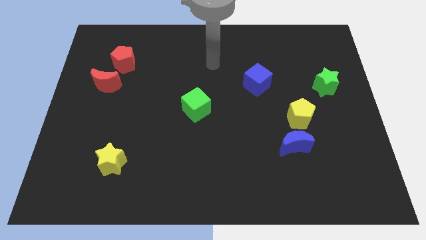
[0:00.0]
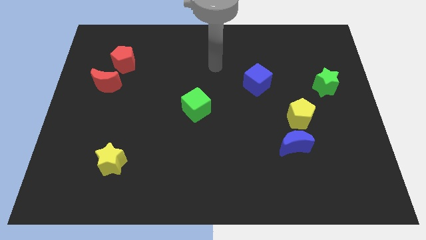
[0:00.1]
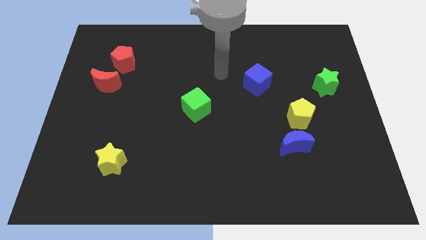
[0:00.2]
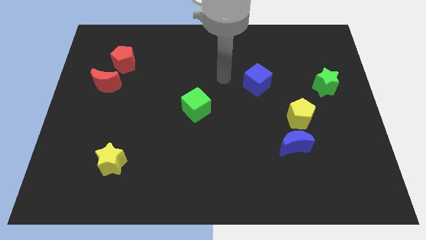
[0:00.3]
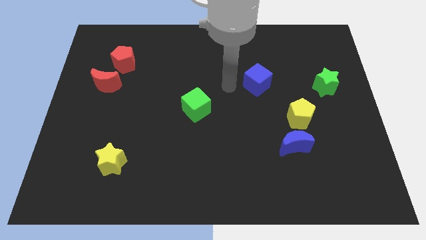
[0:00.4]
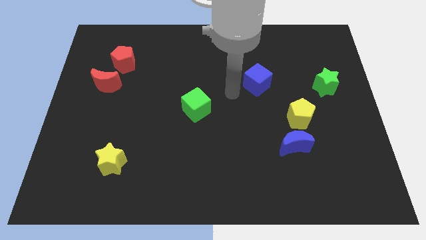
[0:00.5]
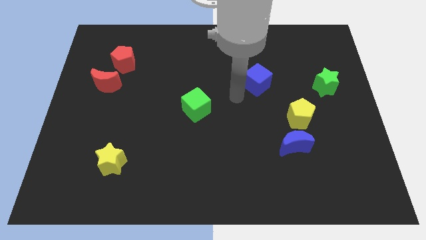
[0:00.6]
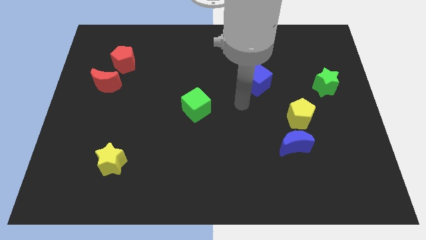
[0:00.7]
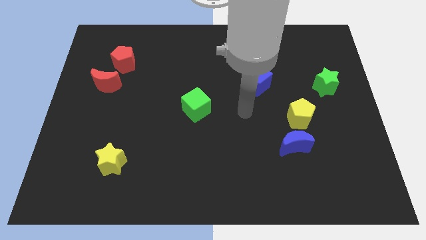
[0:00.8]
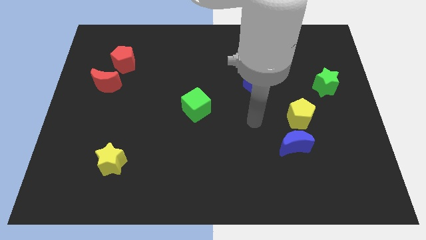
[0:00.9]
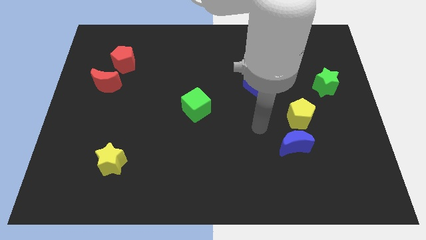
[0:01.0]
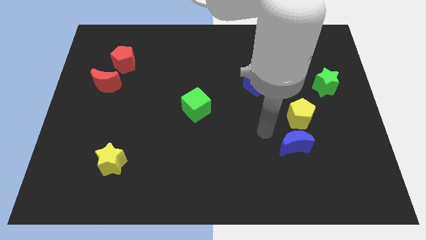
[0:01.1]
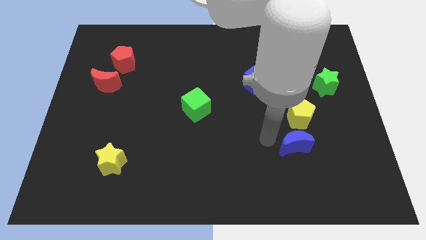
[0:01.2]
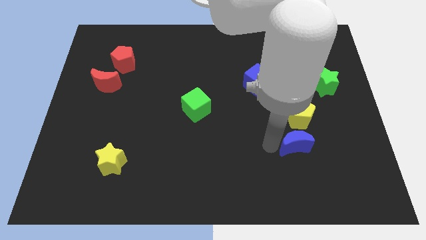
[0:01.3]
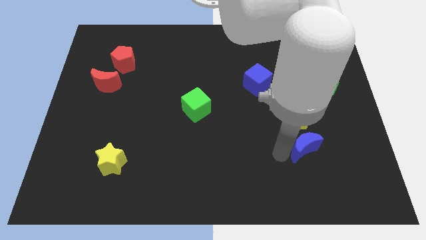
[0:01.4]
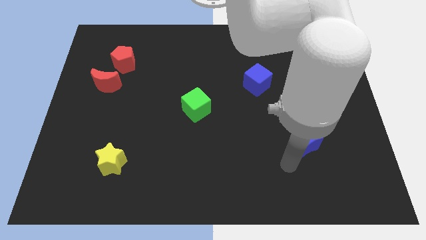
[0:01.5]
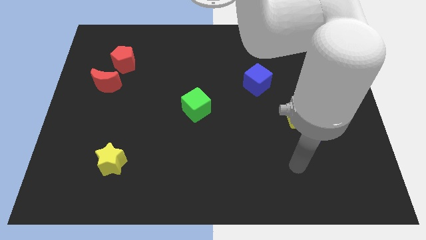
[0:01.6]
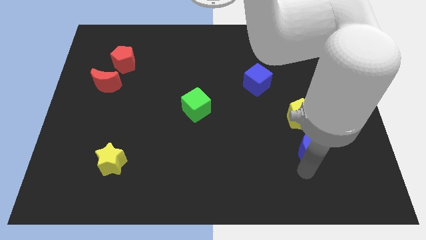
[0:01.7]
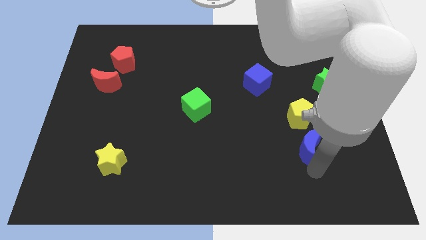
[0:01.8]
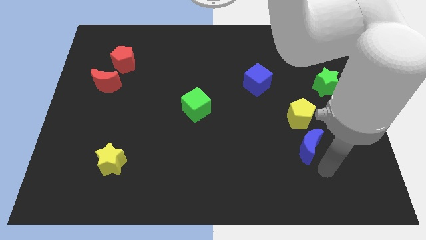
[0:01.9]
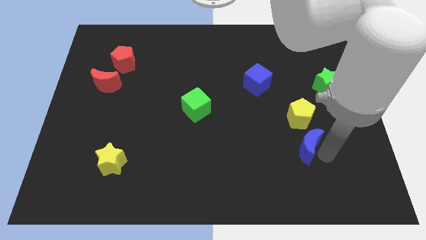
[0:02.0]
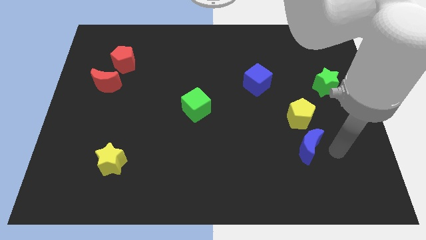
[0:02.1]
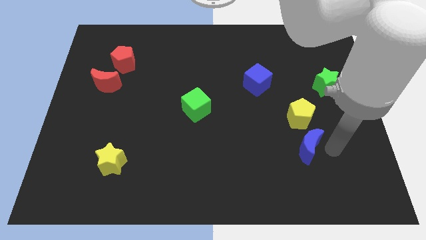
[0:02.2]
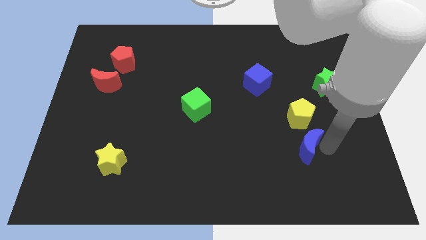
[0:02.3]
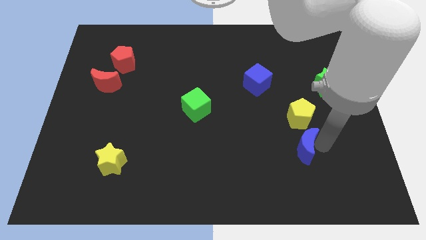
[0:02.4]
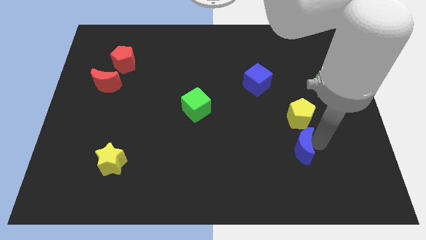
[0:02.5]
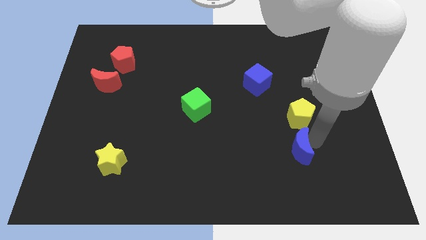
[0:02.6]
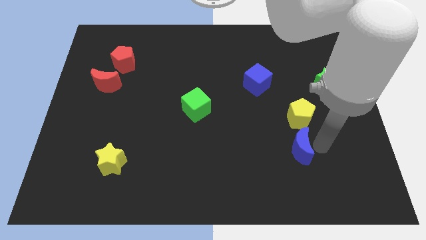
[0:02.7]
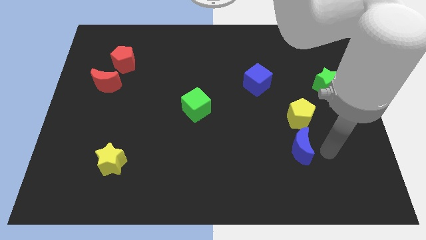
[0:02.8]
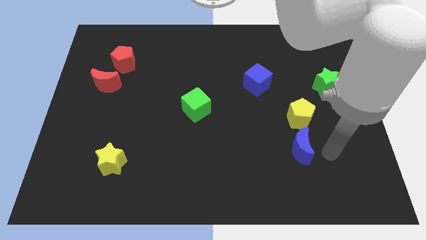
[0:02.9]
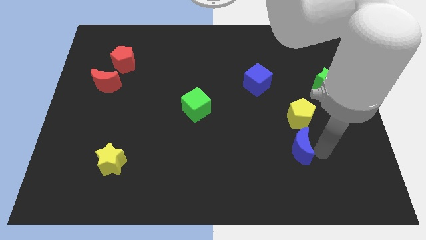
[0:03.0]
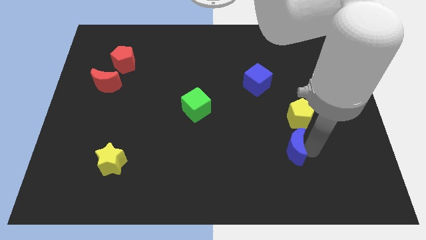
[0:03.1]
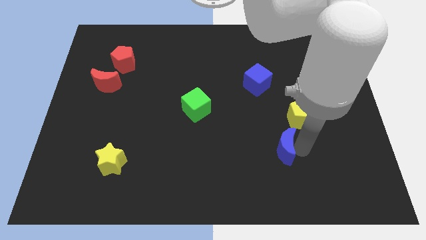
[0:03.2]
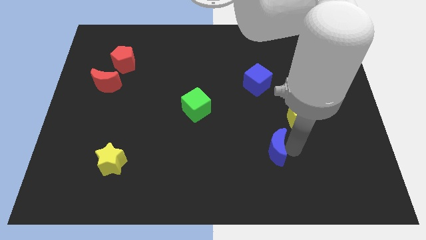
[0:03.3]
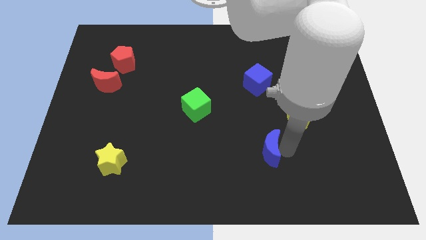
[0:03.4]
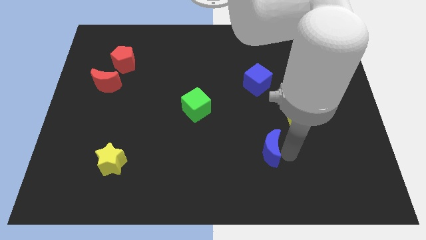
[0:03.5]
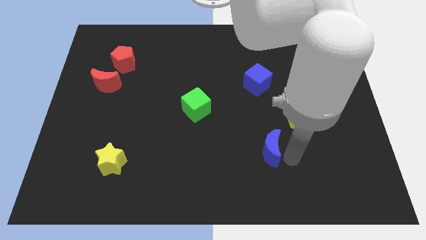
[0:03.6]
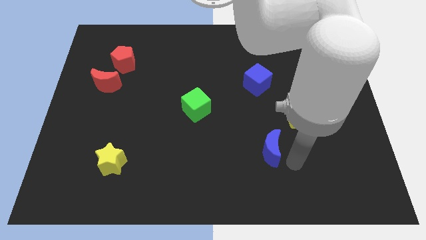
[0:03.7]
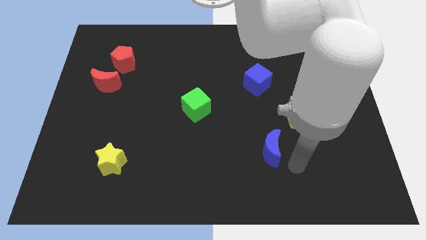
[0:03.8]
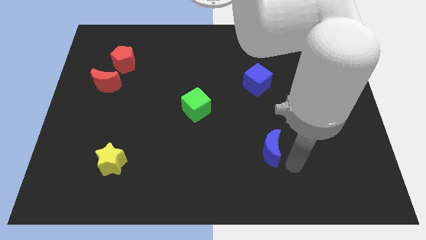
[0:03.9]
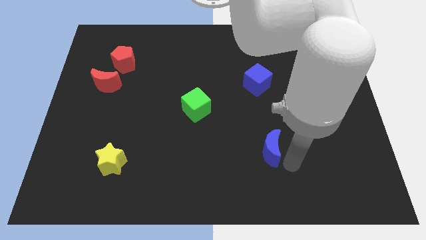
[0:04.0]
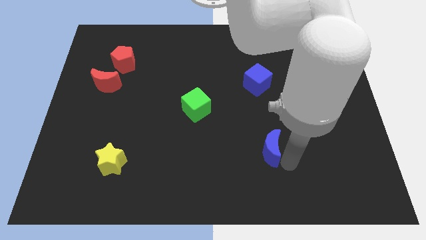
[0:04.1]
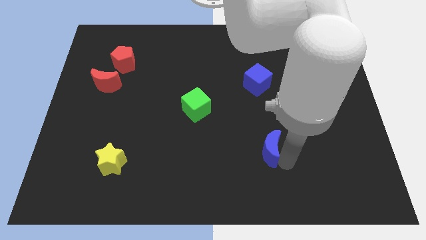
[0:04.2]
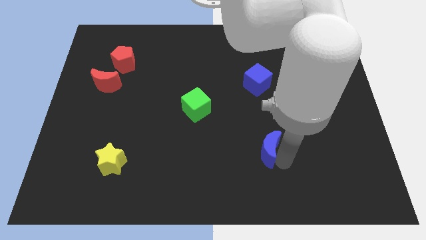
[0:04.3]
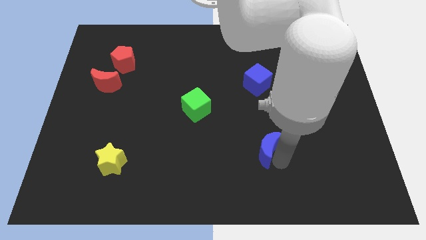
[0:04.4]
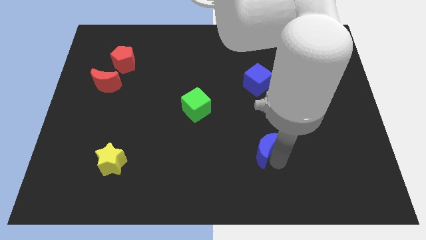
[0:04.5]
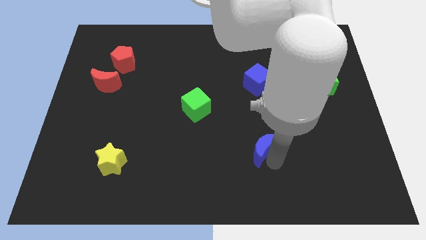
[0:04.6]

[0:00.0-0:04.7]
move the blue moon left somewhat

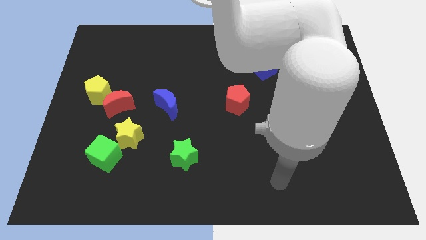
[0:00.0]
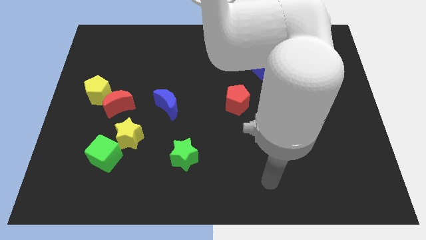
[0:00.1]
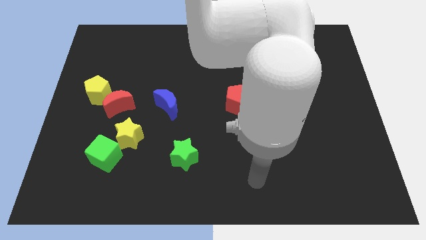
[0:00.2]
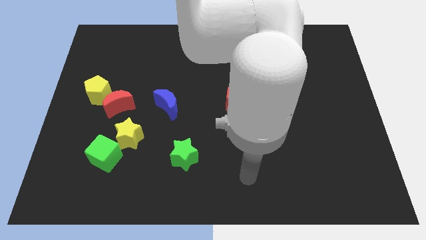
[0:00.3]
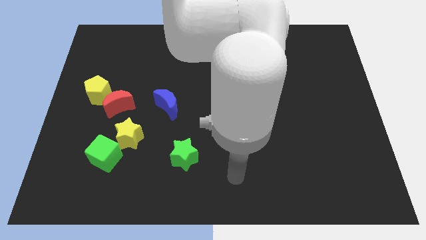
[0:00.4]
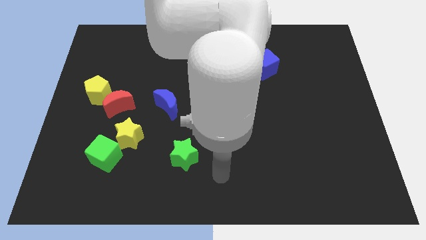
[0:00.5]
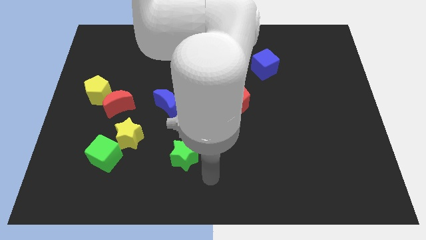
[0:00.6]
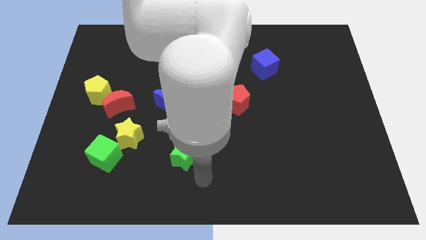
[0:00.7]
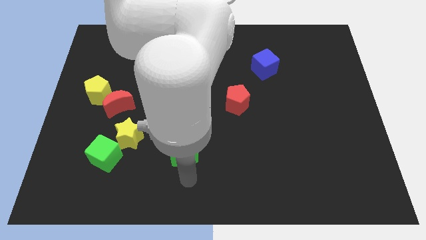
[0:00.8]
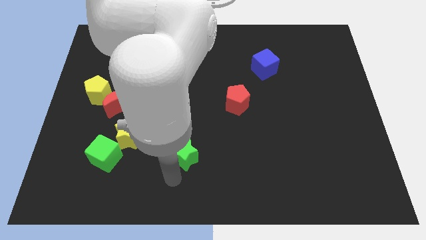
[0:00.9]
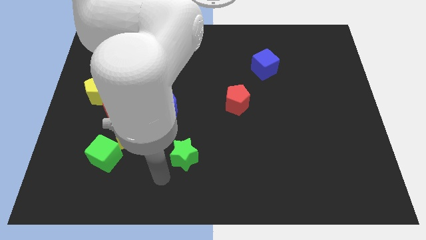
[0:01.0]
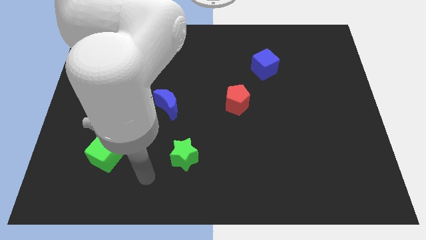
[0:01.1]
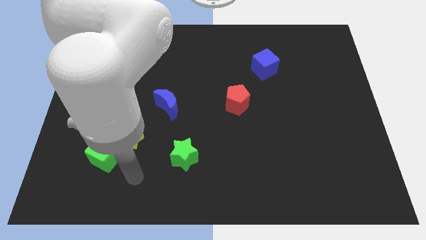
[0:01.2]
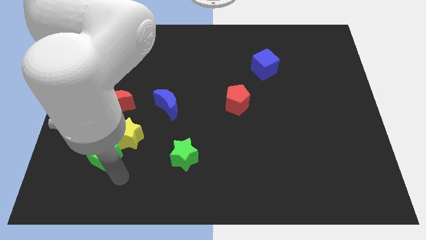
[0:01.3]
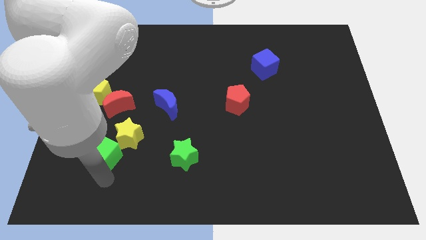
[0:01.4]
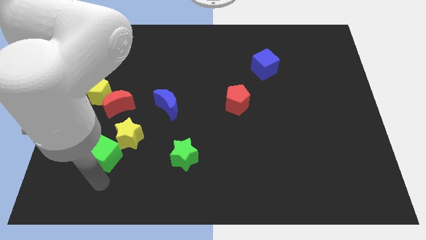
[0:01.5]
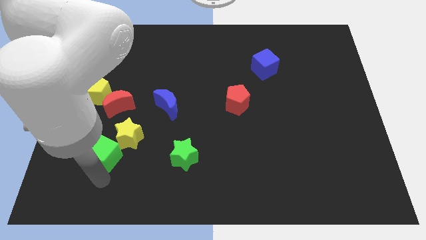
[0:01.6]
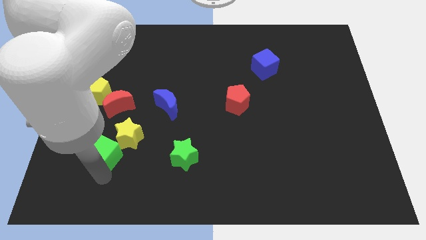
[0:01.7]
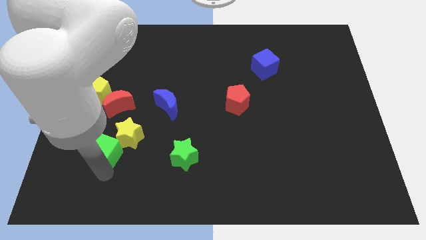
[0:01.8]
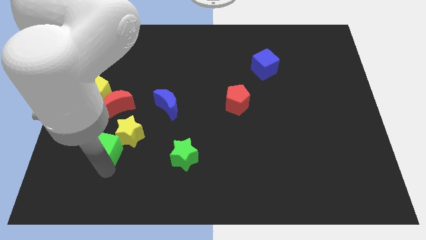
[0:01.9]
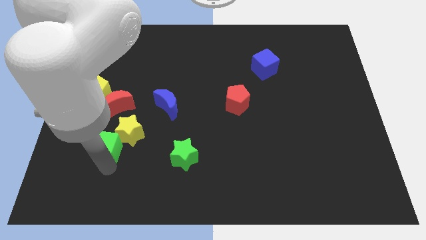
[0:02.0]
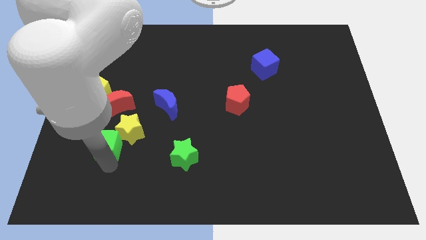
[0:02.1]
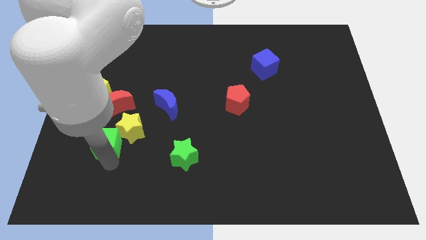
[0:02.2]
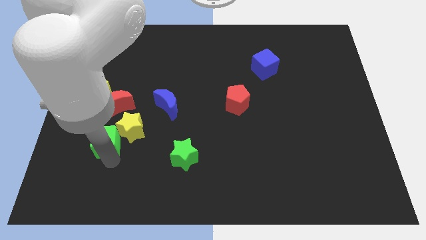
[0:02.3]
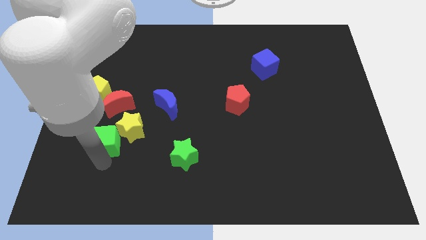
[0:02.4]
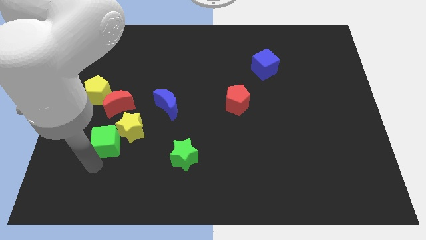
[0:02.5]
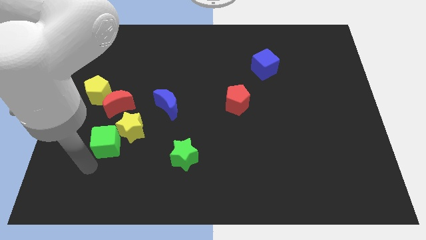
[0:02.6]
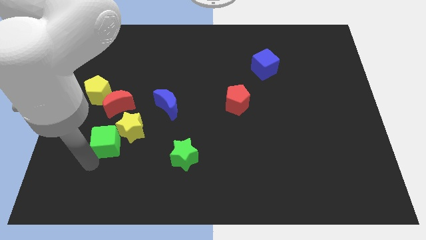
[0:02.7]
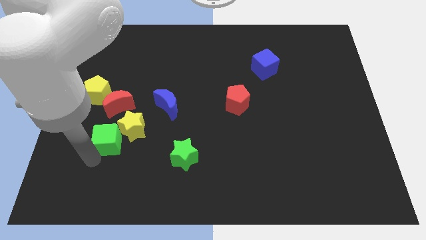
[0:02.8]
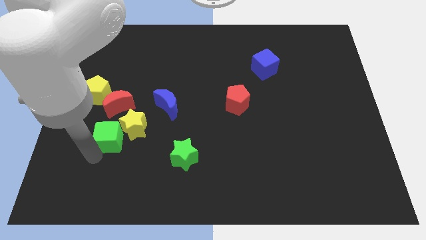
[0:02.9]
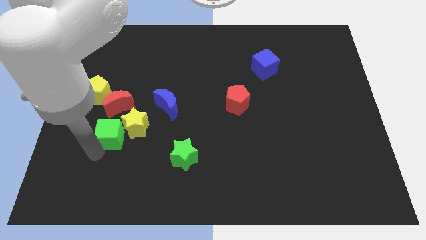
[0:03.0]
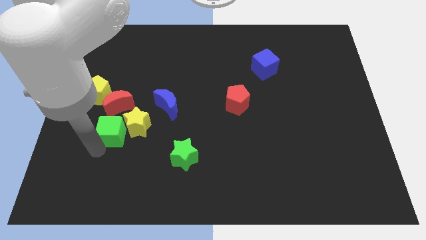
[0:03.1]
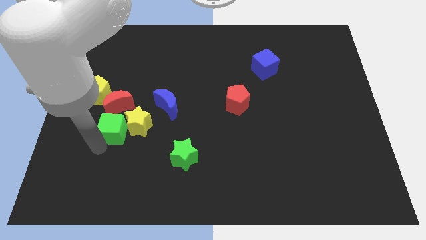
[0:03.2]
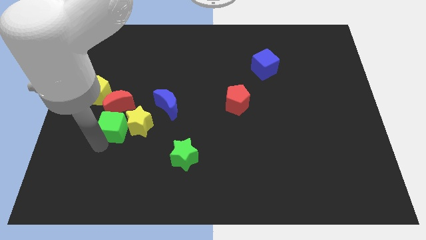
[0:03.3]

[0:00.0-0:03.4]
move the green cube somewhat up

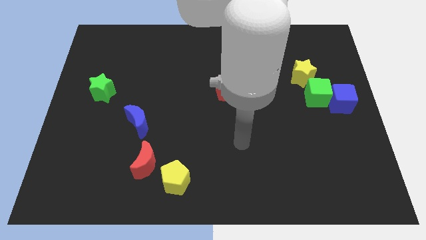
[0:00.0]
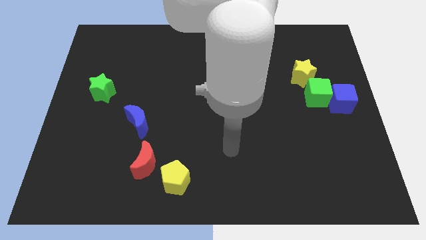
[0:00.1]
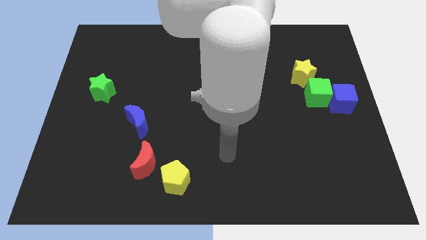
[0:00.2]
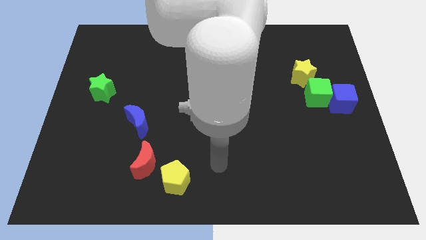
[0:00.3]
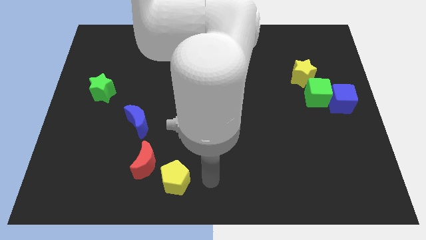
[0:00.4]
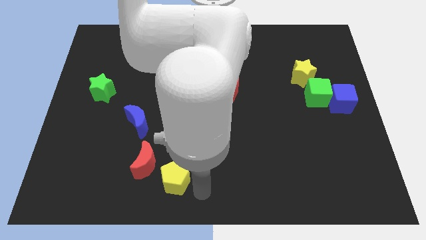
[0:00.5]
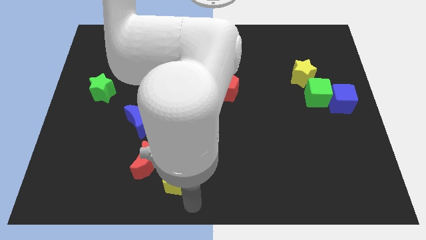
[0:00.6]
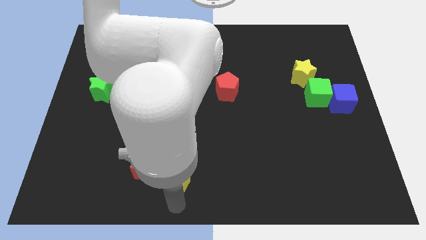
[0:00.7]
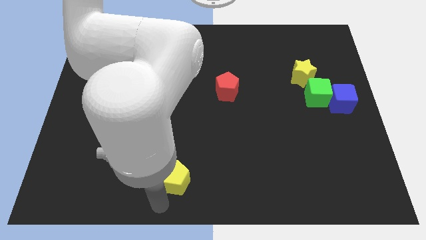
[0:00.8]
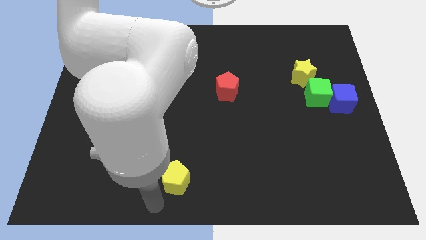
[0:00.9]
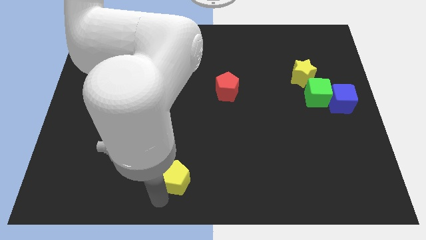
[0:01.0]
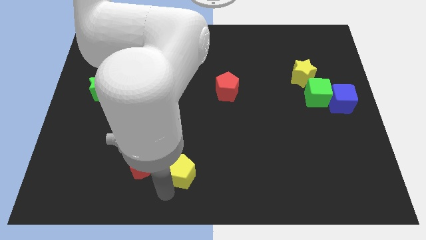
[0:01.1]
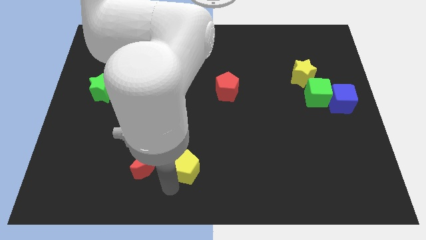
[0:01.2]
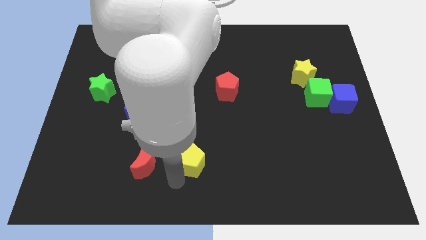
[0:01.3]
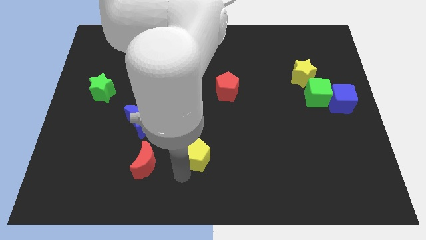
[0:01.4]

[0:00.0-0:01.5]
slide the yellow pentagon upwards and to the right diagonally a little
